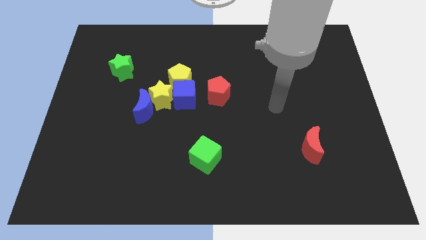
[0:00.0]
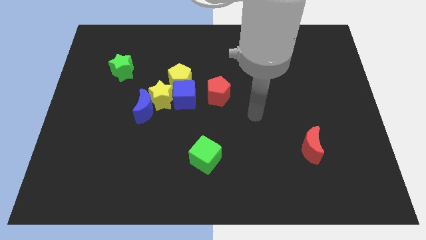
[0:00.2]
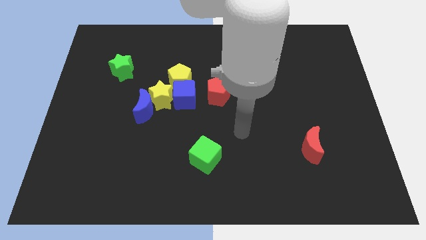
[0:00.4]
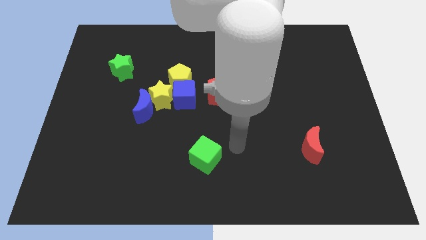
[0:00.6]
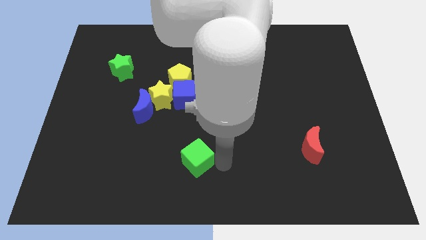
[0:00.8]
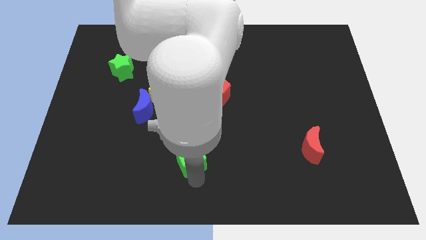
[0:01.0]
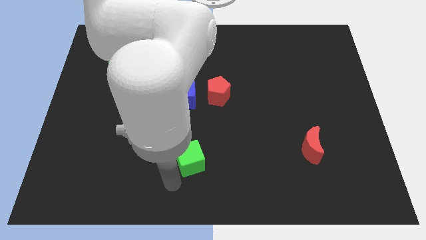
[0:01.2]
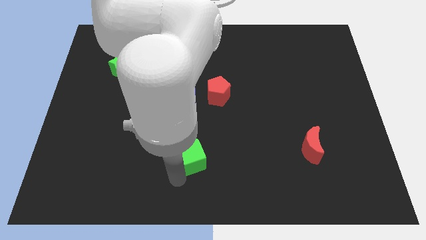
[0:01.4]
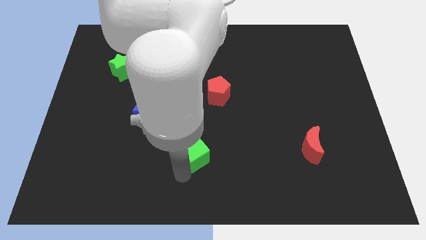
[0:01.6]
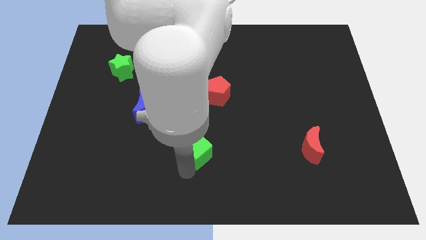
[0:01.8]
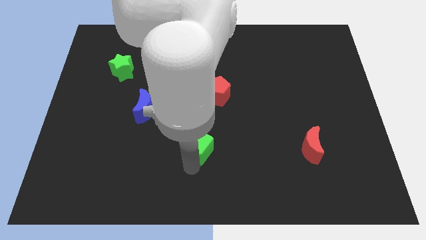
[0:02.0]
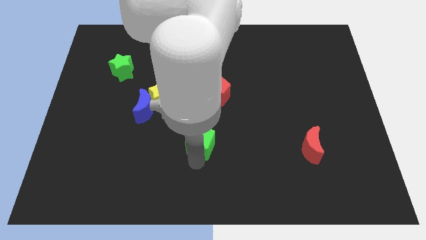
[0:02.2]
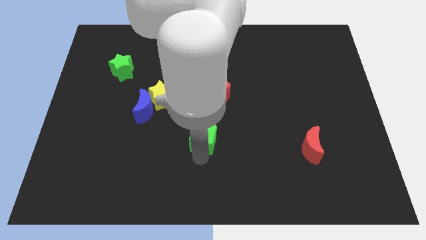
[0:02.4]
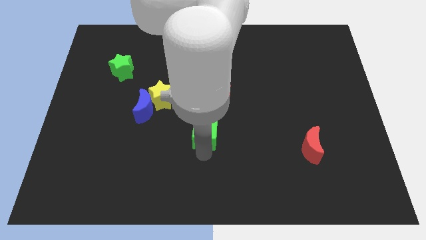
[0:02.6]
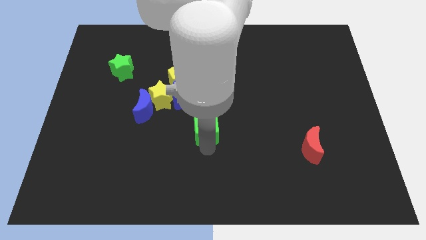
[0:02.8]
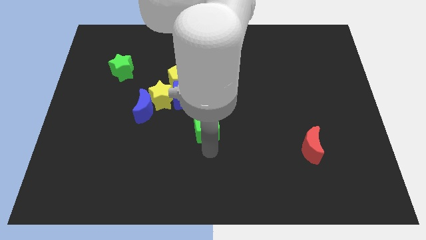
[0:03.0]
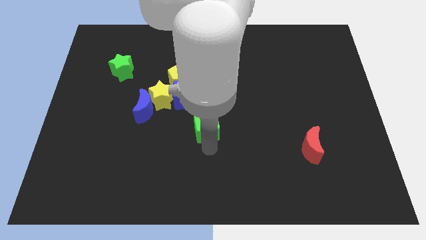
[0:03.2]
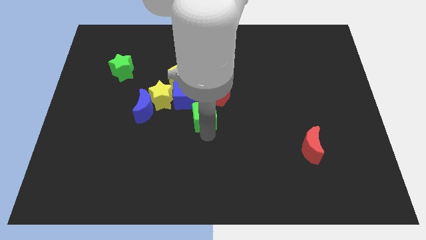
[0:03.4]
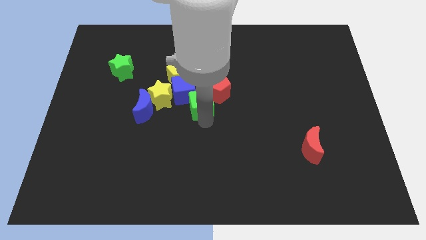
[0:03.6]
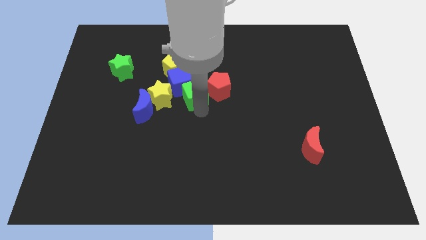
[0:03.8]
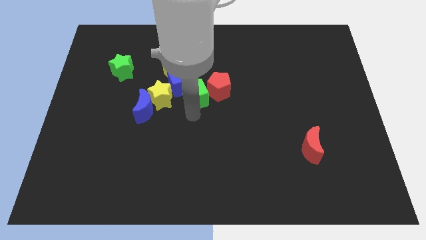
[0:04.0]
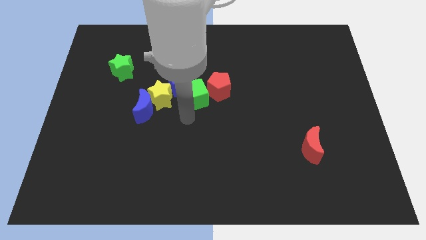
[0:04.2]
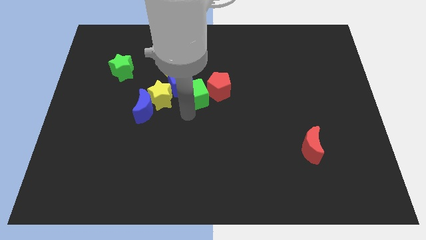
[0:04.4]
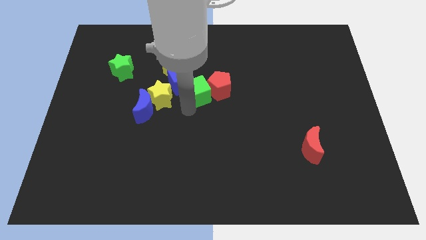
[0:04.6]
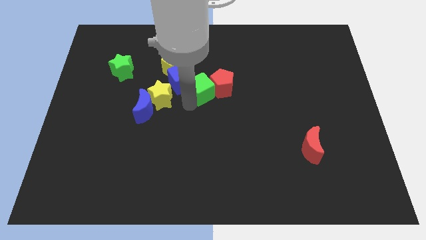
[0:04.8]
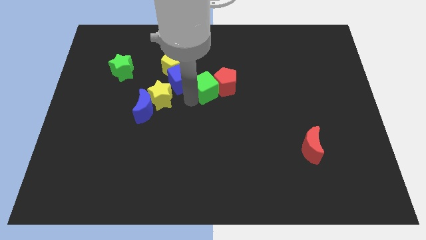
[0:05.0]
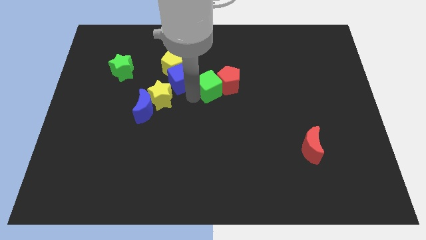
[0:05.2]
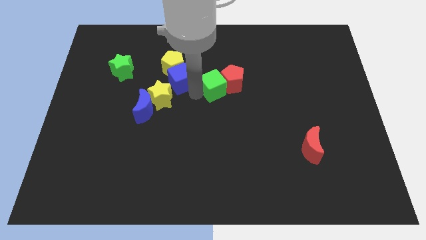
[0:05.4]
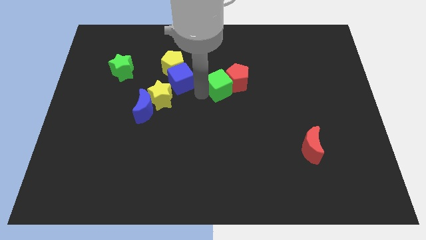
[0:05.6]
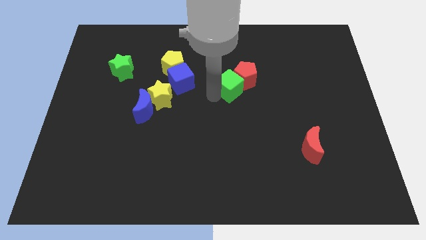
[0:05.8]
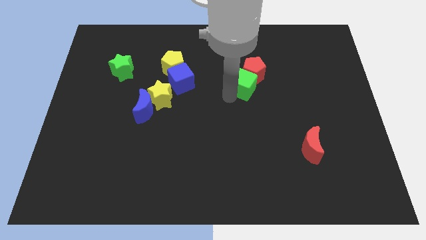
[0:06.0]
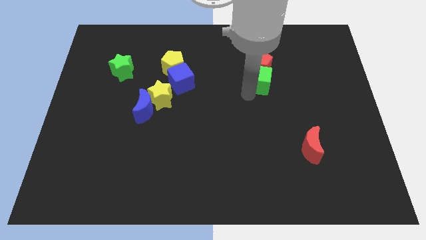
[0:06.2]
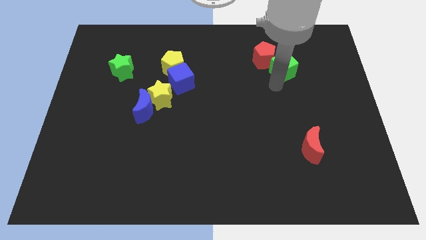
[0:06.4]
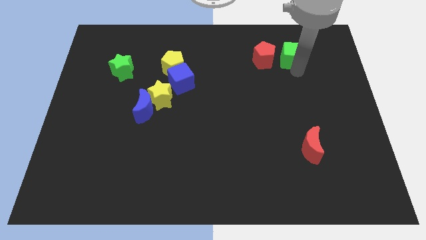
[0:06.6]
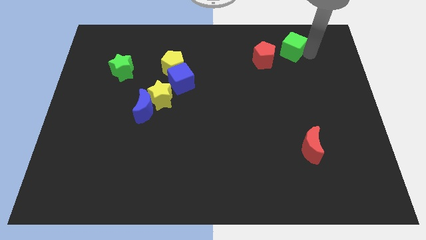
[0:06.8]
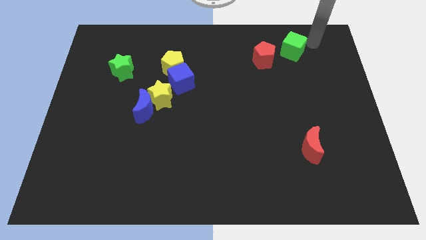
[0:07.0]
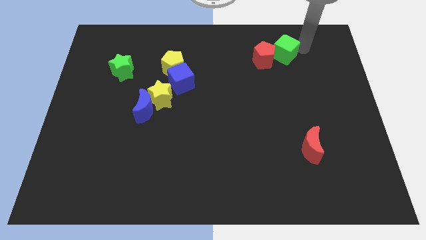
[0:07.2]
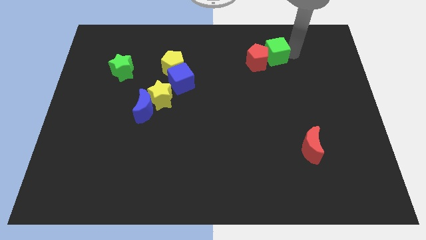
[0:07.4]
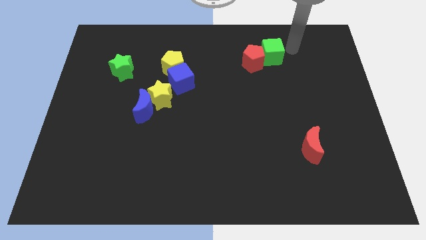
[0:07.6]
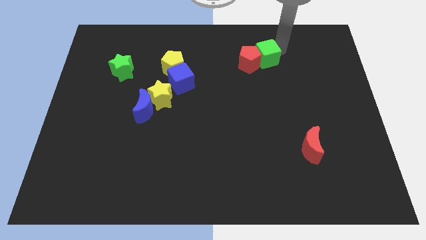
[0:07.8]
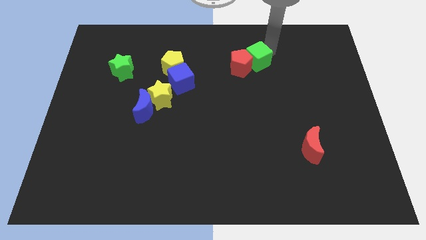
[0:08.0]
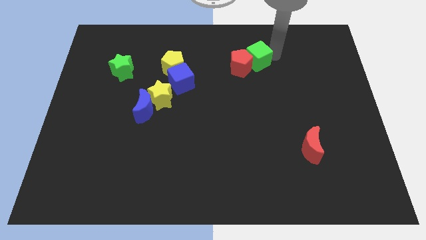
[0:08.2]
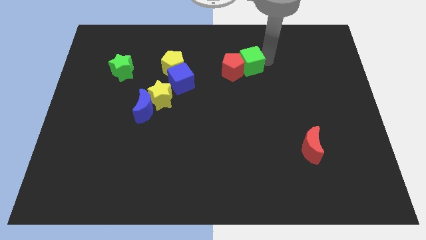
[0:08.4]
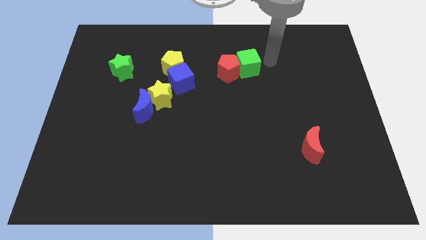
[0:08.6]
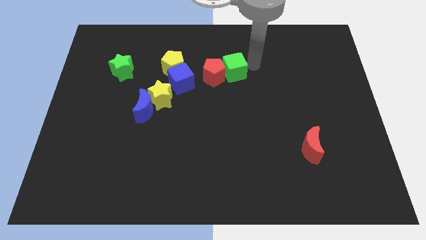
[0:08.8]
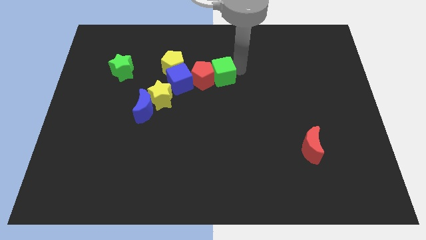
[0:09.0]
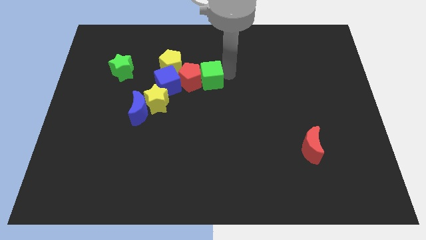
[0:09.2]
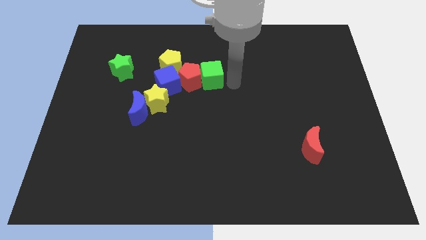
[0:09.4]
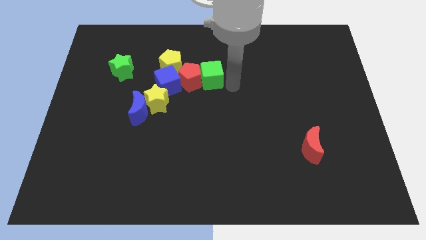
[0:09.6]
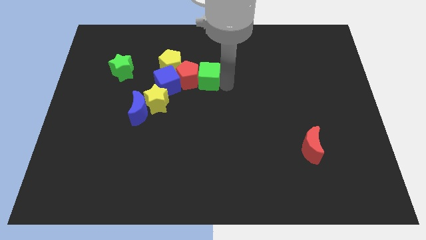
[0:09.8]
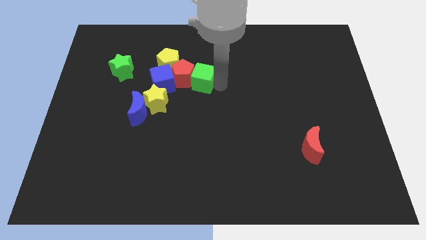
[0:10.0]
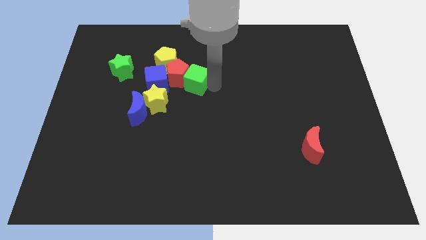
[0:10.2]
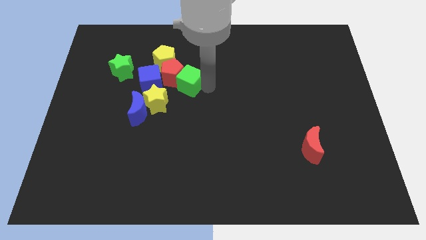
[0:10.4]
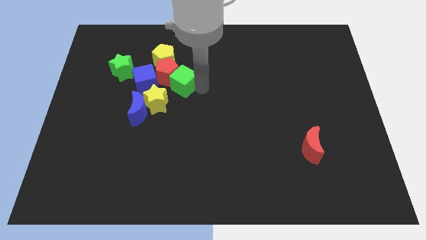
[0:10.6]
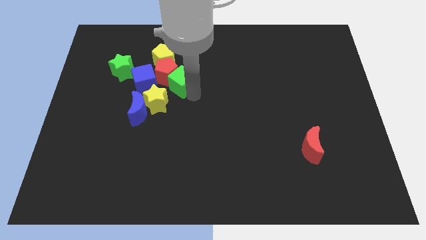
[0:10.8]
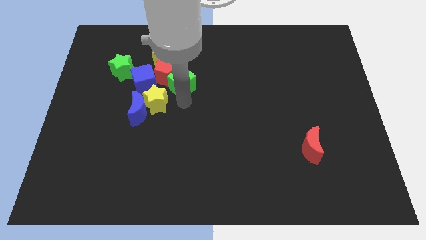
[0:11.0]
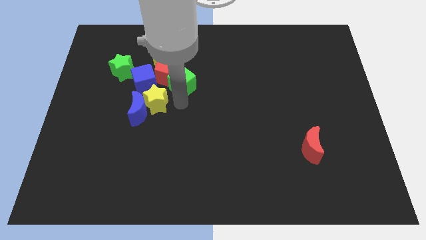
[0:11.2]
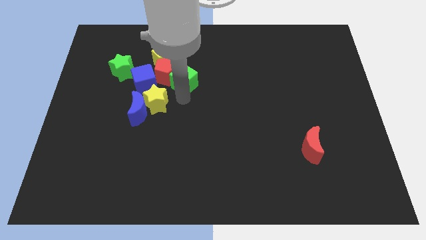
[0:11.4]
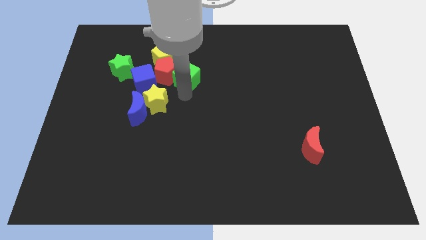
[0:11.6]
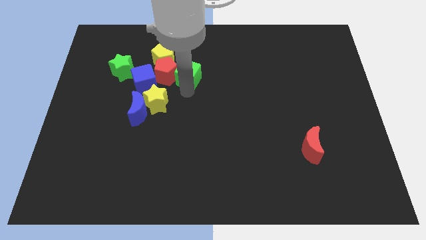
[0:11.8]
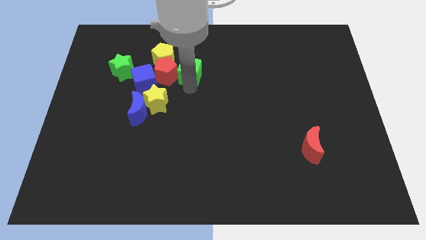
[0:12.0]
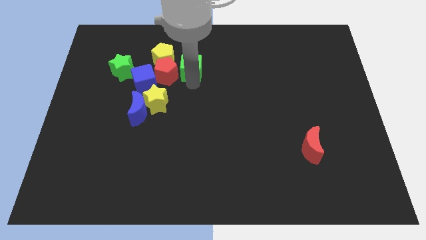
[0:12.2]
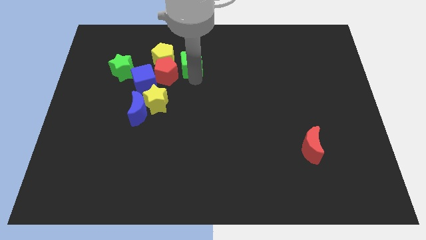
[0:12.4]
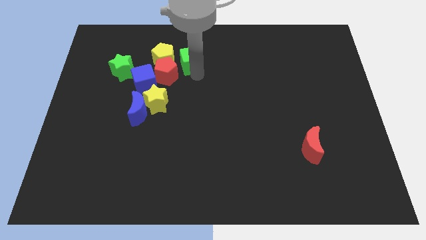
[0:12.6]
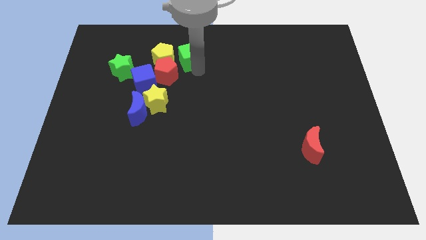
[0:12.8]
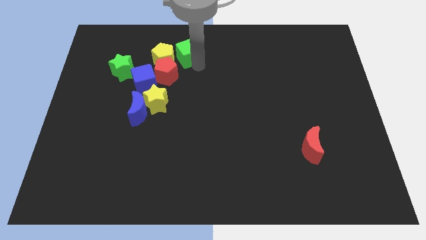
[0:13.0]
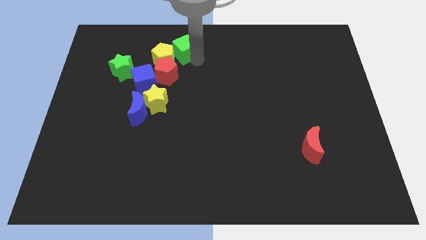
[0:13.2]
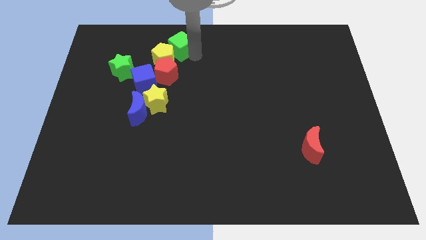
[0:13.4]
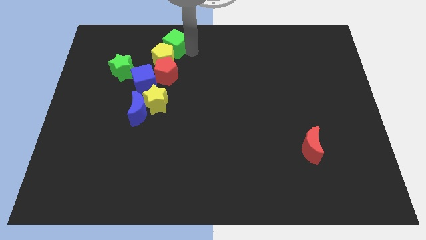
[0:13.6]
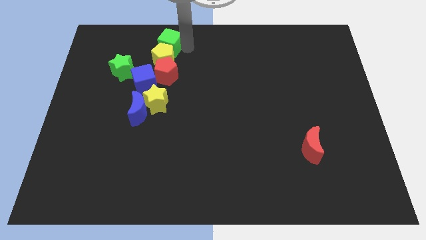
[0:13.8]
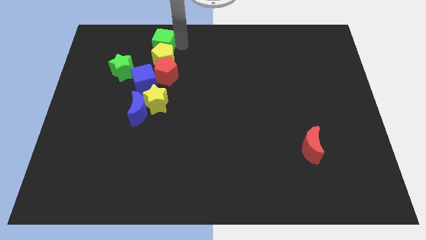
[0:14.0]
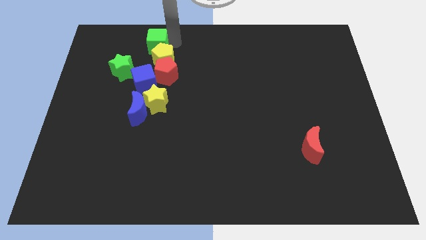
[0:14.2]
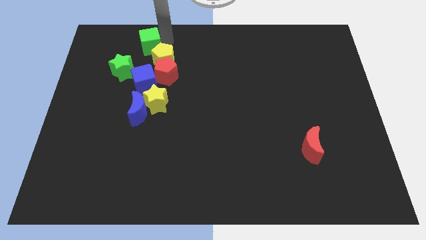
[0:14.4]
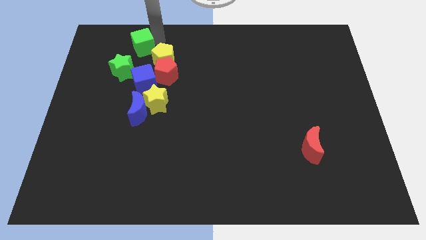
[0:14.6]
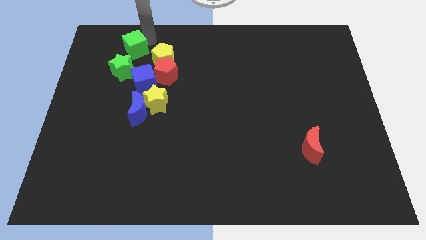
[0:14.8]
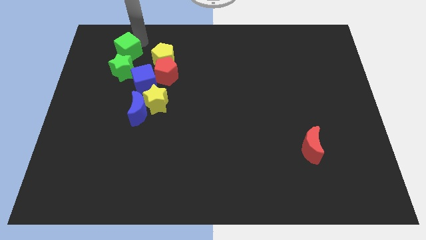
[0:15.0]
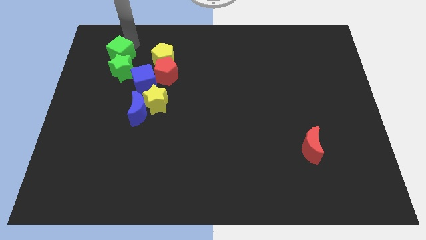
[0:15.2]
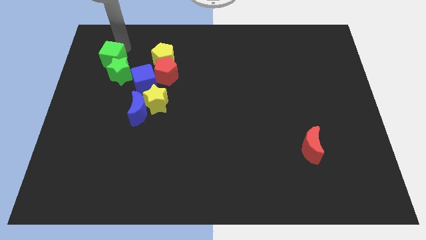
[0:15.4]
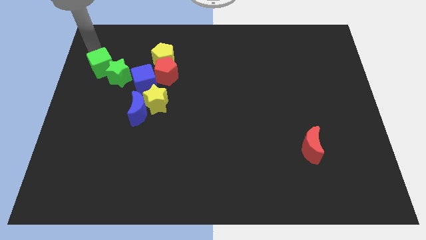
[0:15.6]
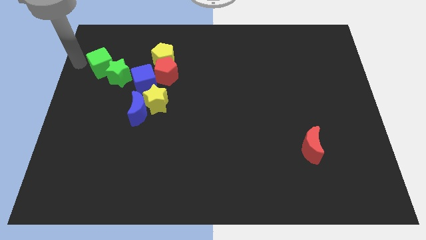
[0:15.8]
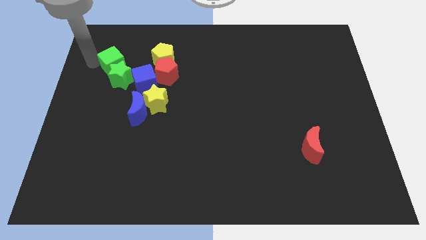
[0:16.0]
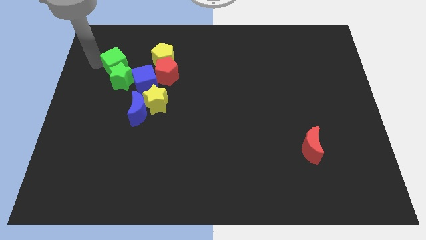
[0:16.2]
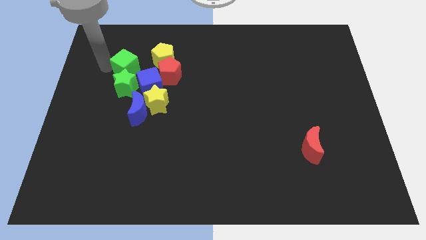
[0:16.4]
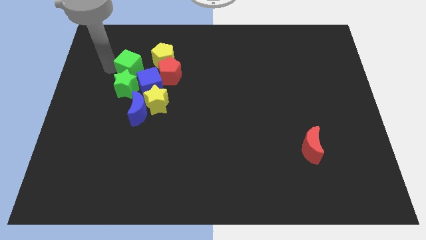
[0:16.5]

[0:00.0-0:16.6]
put the green cube above the blue moon
